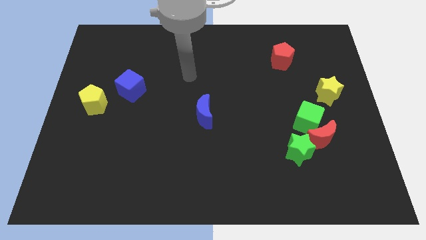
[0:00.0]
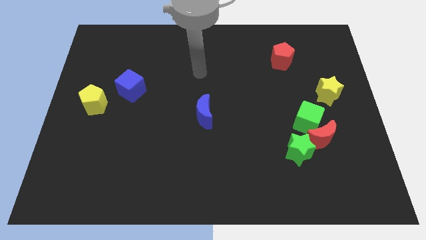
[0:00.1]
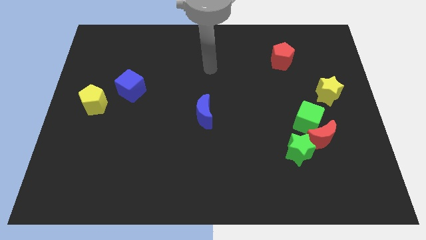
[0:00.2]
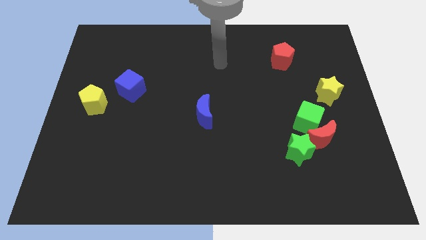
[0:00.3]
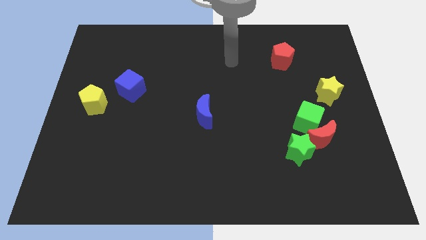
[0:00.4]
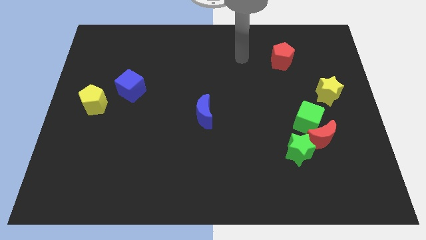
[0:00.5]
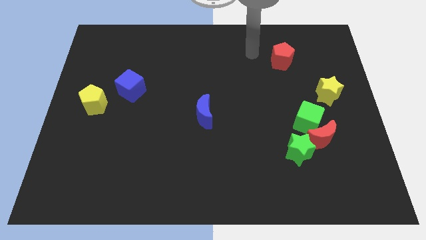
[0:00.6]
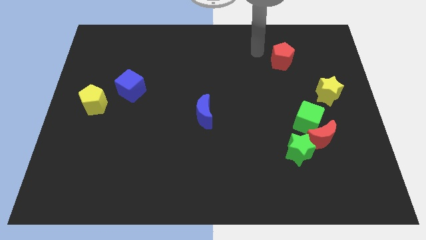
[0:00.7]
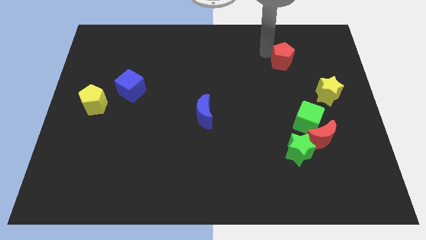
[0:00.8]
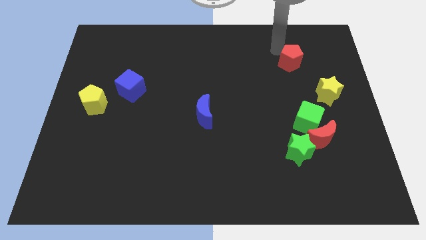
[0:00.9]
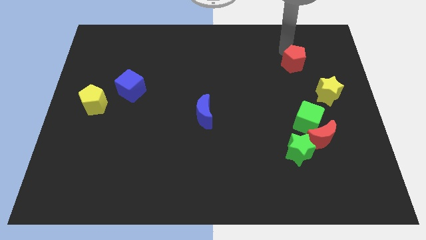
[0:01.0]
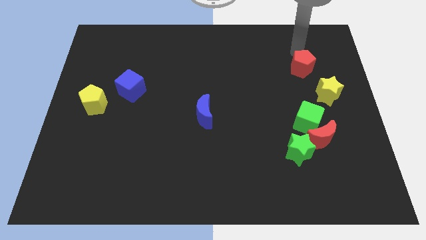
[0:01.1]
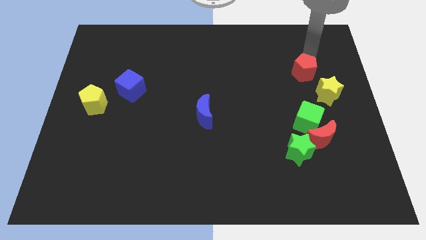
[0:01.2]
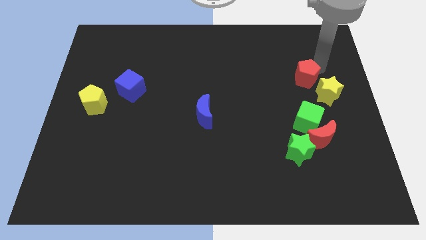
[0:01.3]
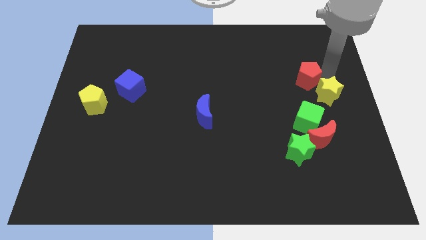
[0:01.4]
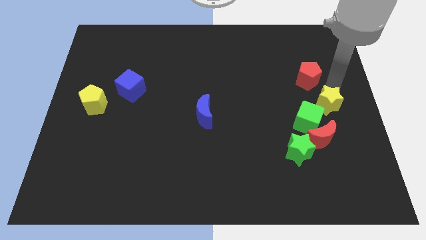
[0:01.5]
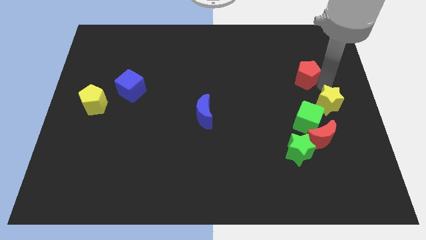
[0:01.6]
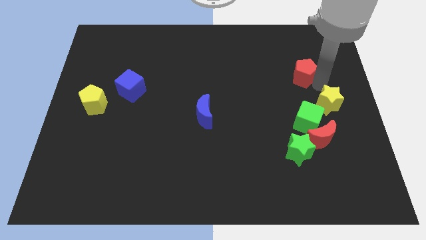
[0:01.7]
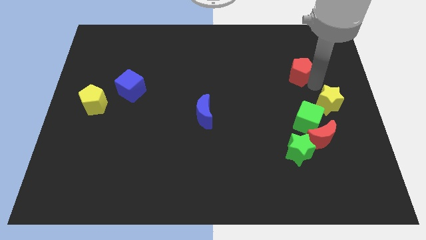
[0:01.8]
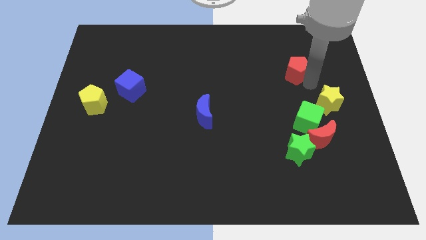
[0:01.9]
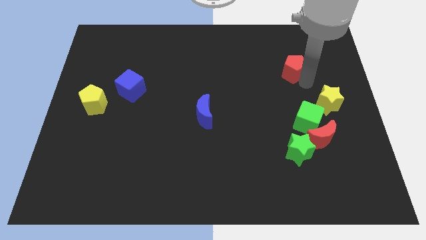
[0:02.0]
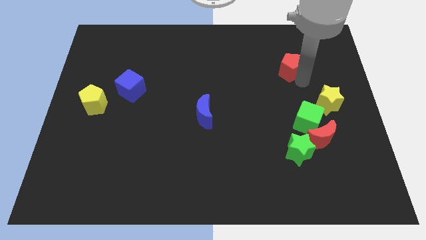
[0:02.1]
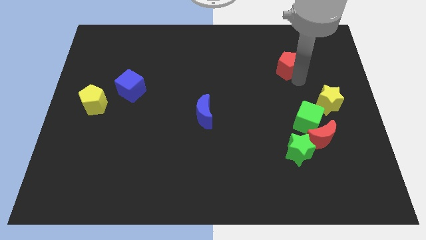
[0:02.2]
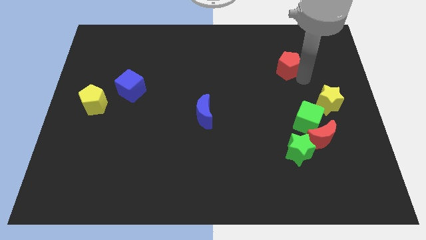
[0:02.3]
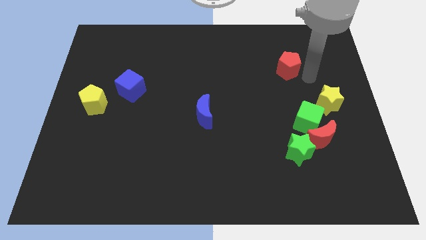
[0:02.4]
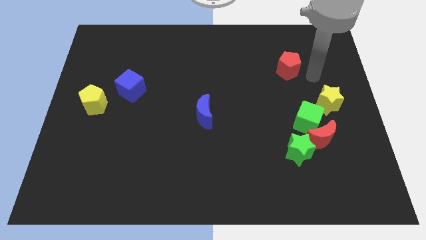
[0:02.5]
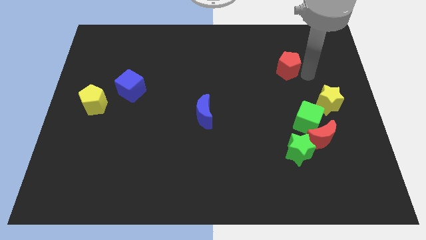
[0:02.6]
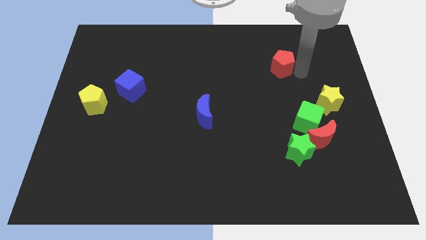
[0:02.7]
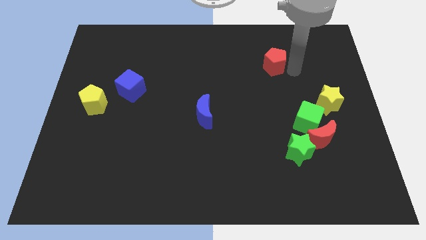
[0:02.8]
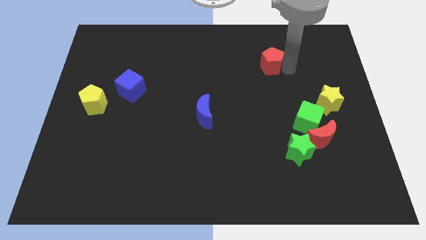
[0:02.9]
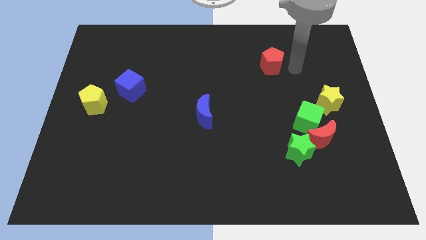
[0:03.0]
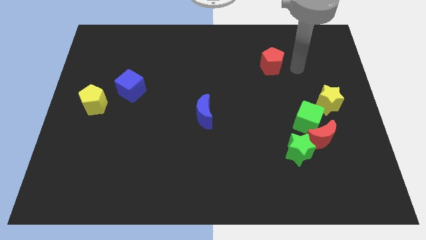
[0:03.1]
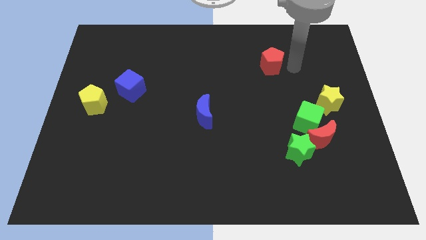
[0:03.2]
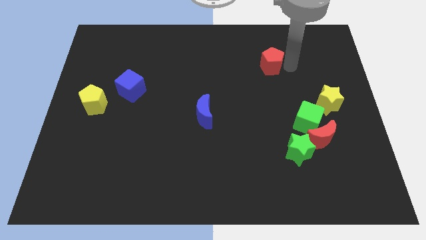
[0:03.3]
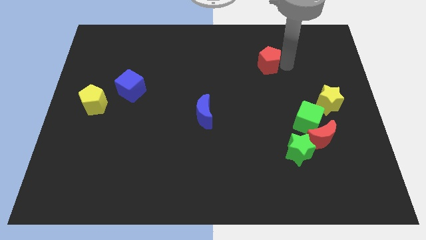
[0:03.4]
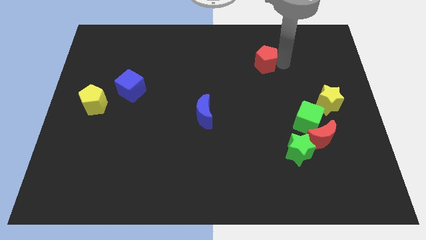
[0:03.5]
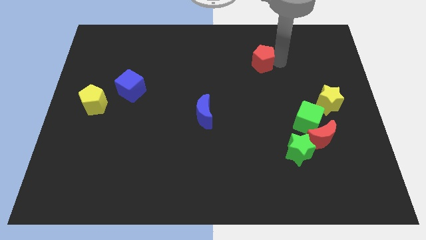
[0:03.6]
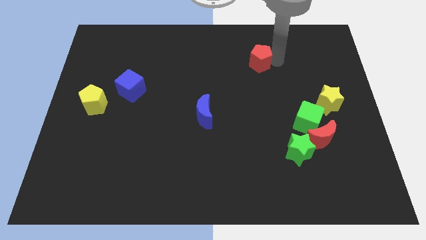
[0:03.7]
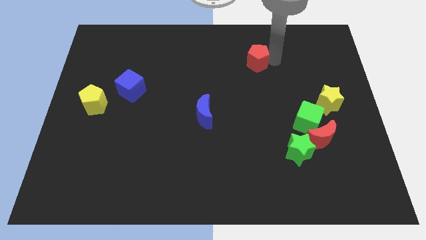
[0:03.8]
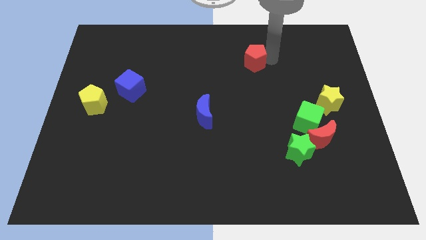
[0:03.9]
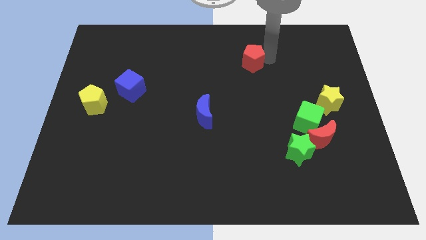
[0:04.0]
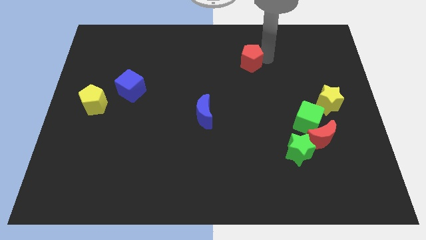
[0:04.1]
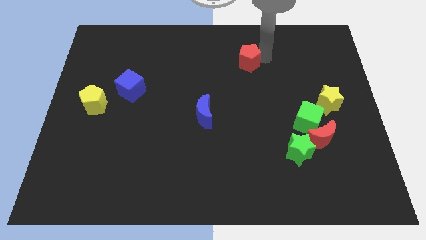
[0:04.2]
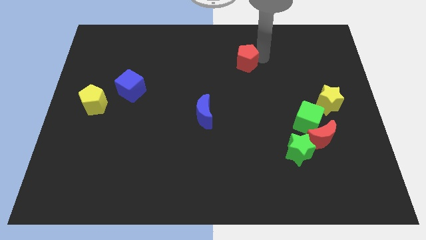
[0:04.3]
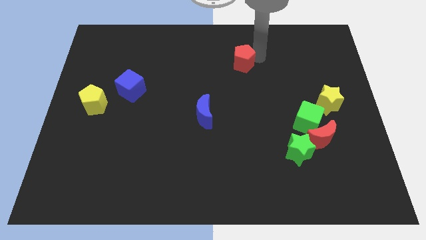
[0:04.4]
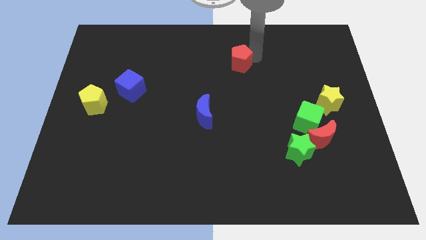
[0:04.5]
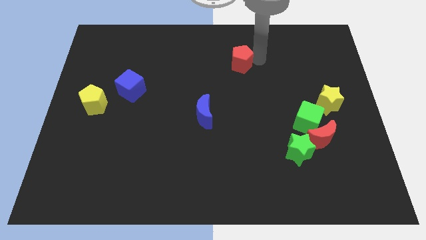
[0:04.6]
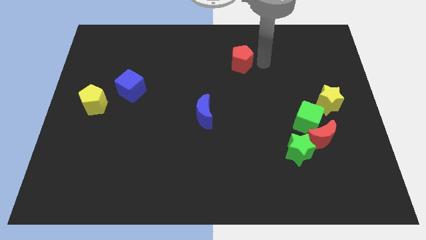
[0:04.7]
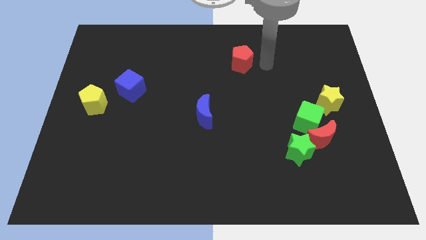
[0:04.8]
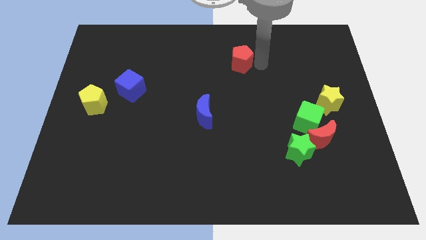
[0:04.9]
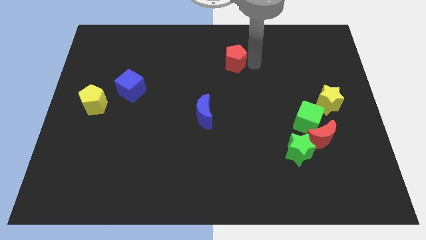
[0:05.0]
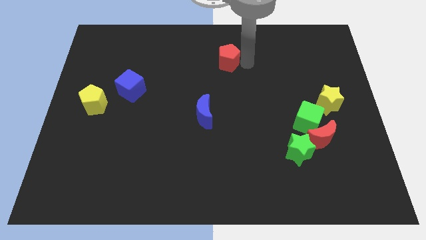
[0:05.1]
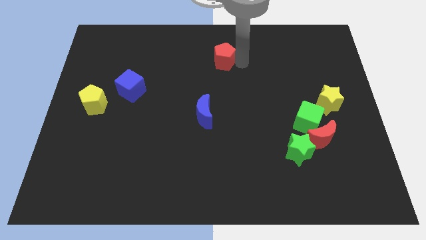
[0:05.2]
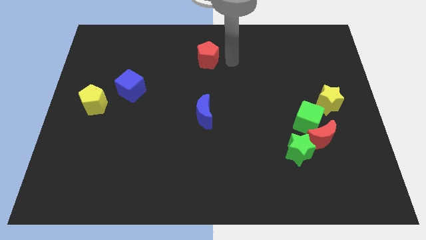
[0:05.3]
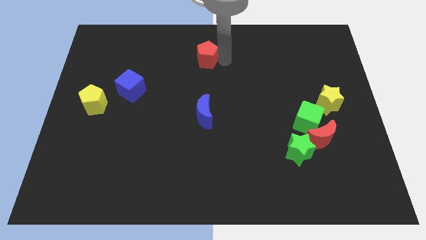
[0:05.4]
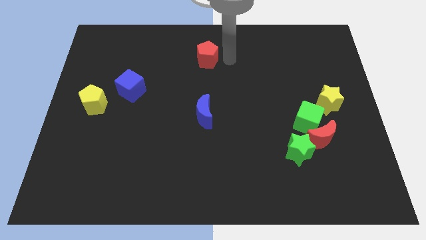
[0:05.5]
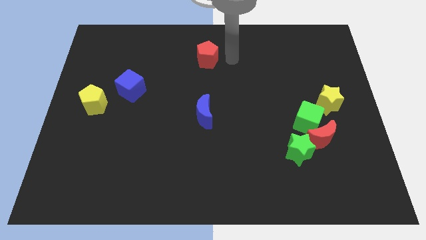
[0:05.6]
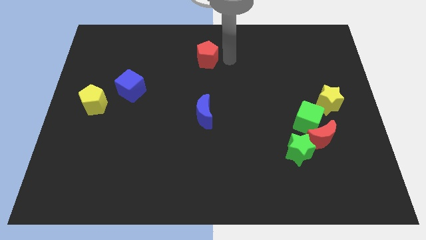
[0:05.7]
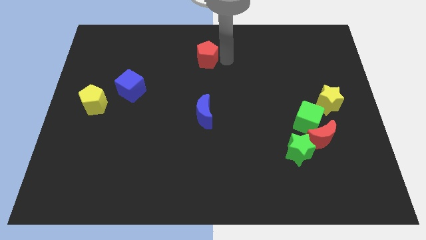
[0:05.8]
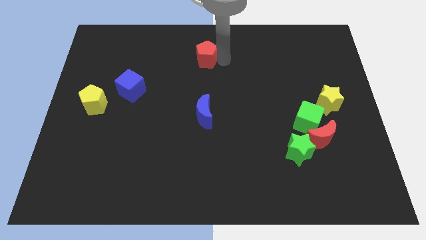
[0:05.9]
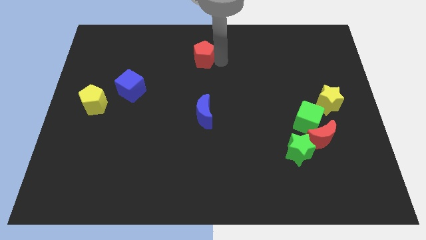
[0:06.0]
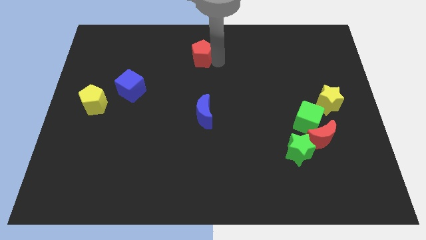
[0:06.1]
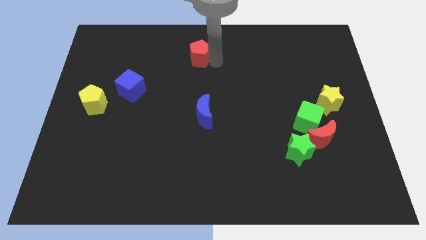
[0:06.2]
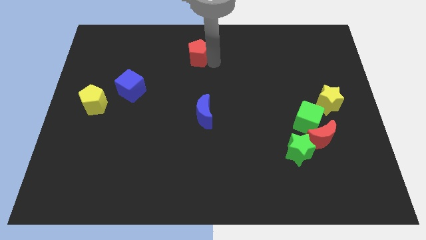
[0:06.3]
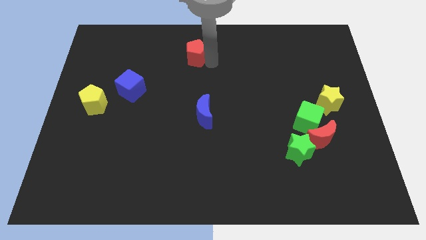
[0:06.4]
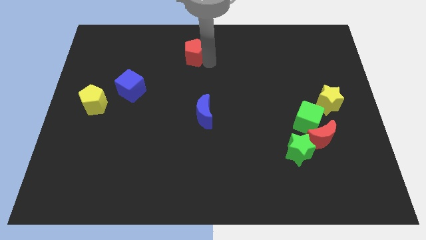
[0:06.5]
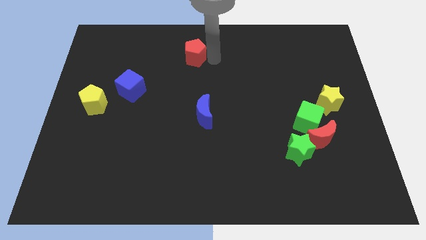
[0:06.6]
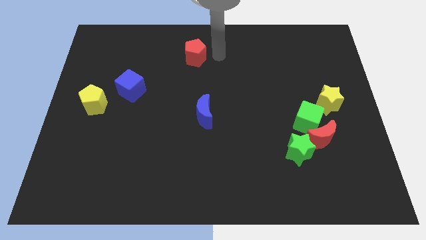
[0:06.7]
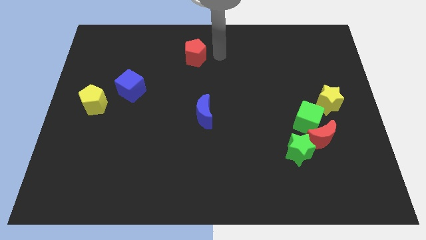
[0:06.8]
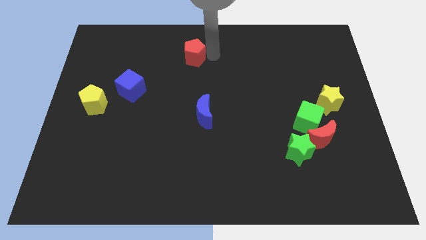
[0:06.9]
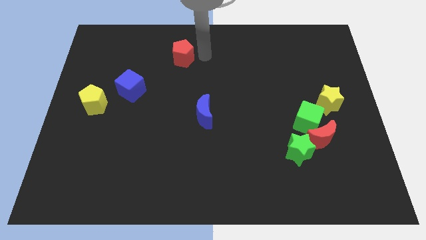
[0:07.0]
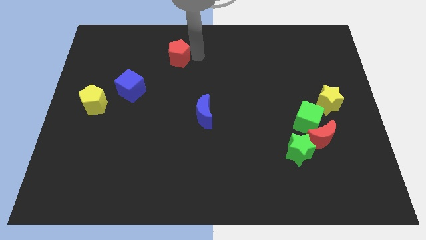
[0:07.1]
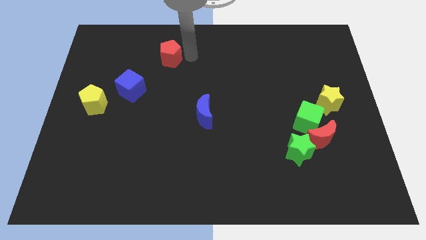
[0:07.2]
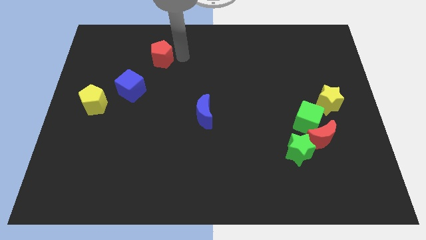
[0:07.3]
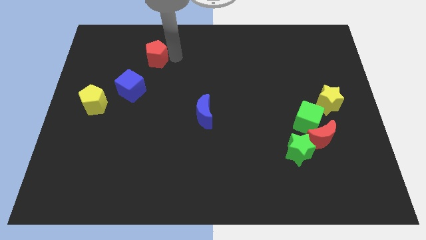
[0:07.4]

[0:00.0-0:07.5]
slide the red pentagon to the top side of the blue cube
